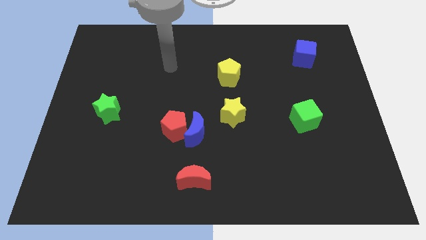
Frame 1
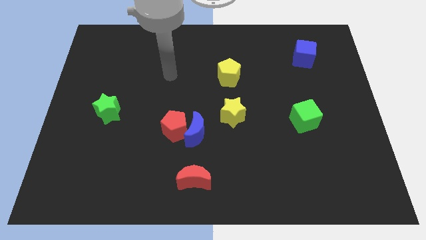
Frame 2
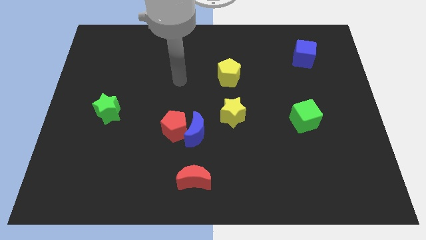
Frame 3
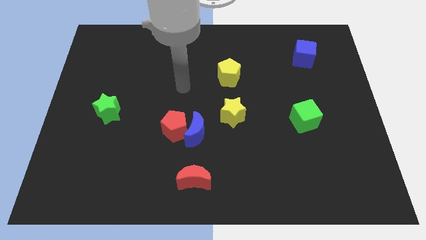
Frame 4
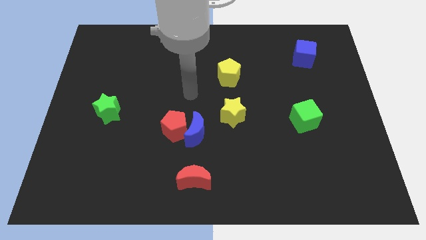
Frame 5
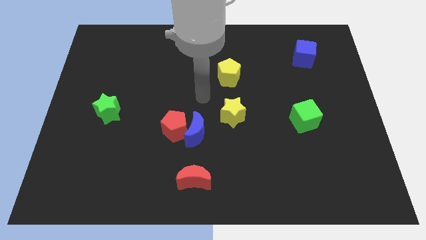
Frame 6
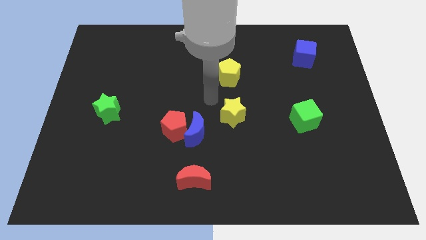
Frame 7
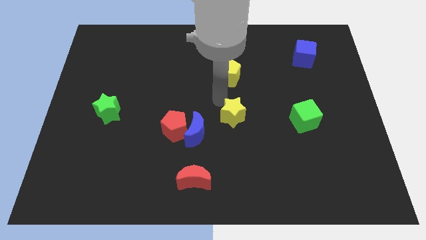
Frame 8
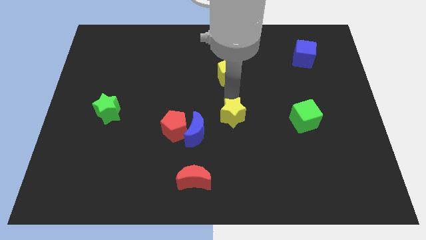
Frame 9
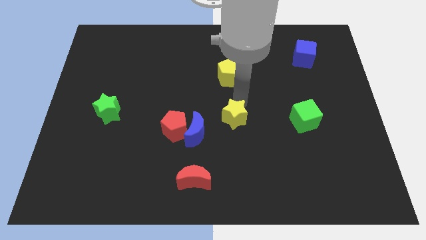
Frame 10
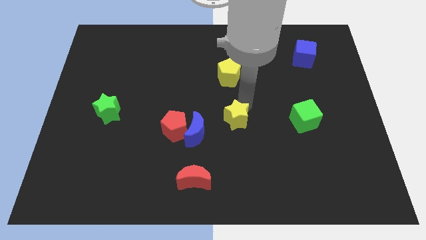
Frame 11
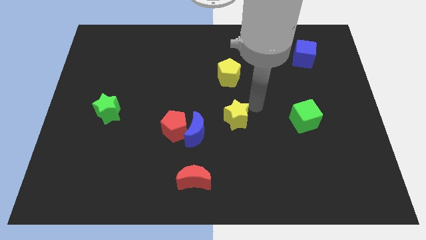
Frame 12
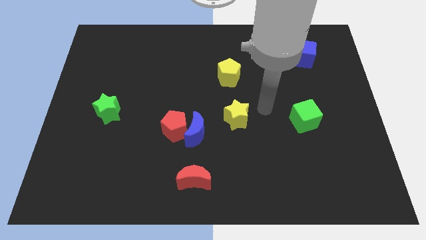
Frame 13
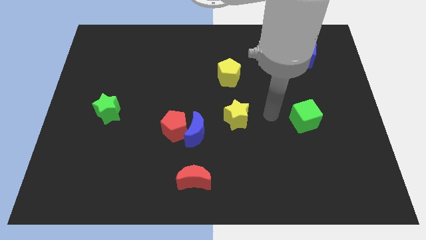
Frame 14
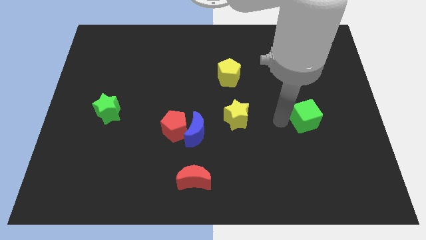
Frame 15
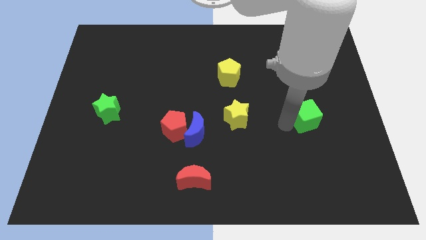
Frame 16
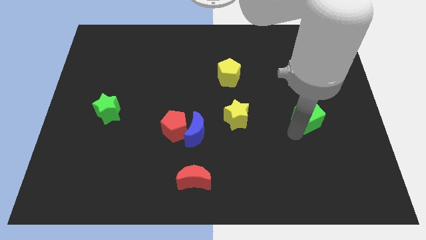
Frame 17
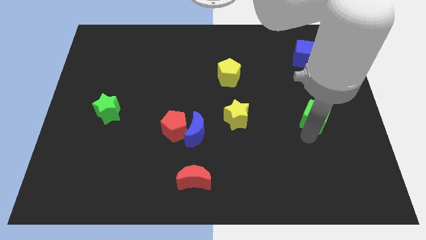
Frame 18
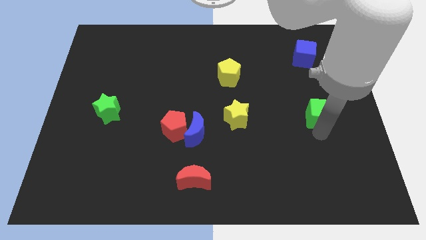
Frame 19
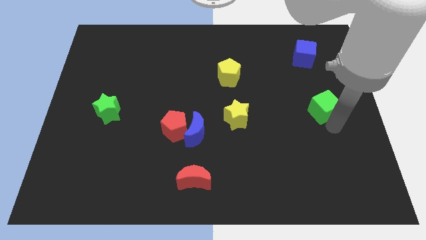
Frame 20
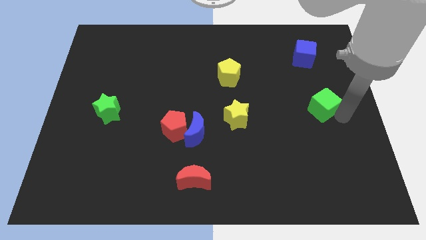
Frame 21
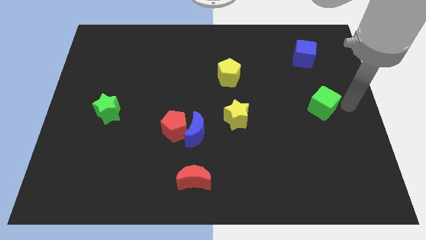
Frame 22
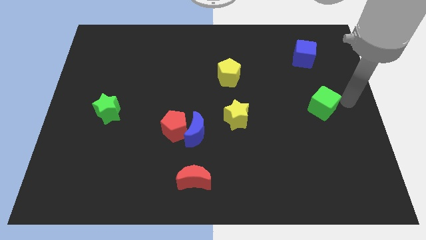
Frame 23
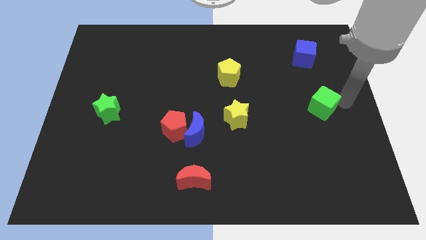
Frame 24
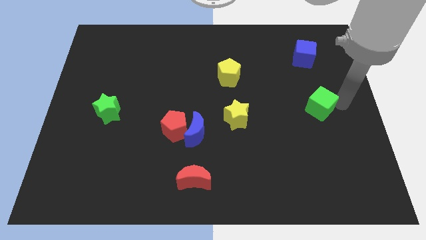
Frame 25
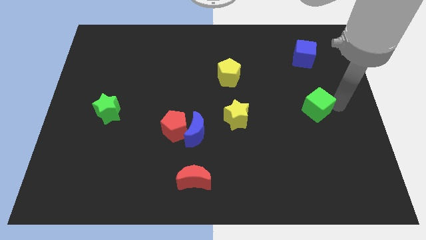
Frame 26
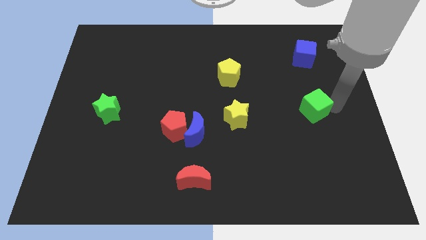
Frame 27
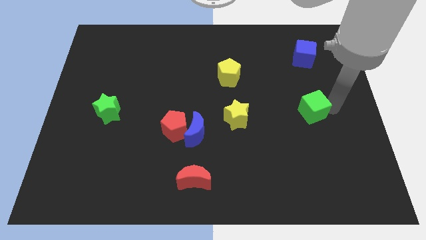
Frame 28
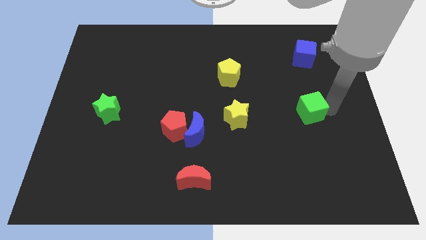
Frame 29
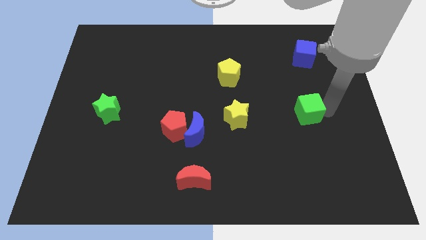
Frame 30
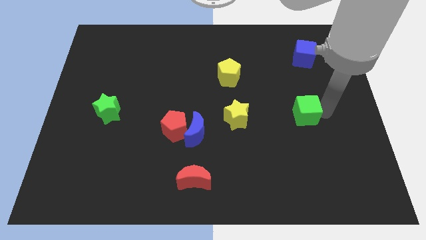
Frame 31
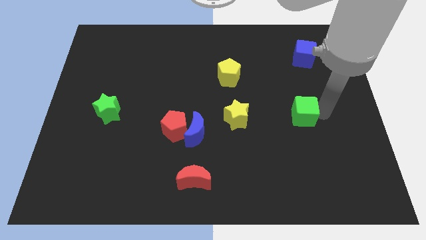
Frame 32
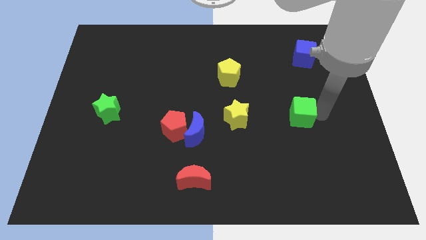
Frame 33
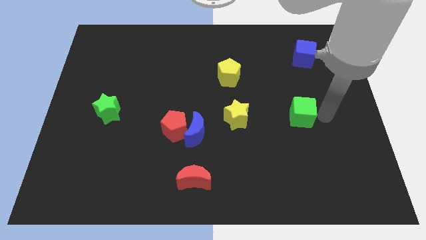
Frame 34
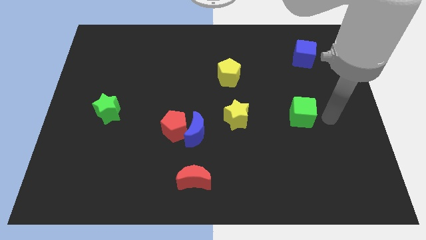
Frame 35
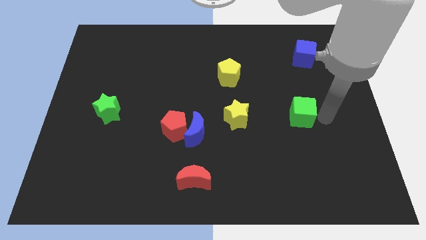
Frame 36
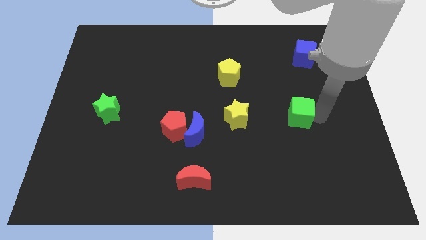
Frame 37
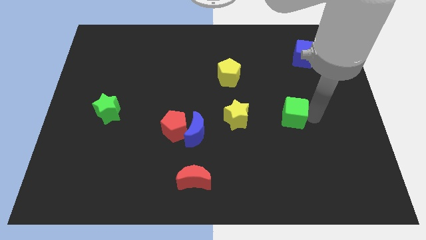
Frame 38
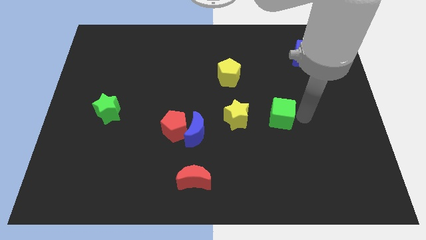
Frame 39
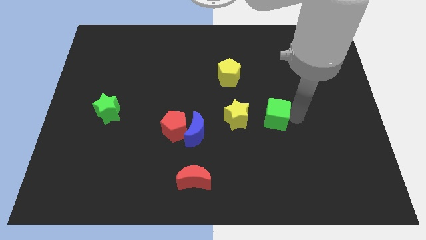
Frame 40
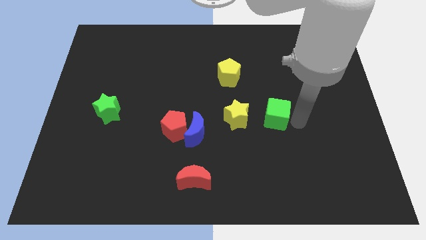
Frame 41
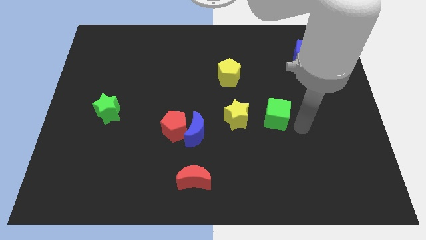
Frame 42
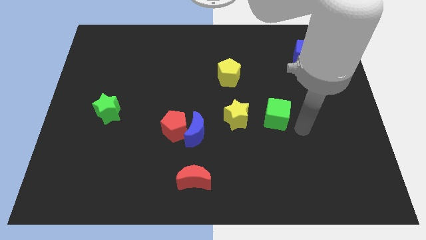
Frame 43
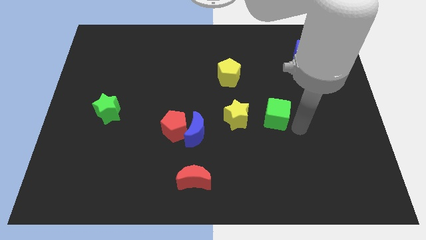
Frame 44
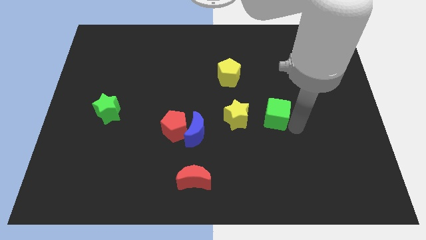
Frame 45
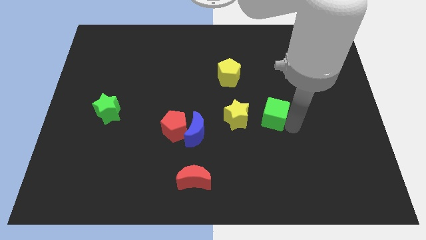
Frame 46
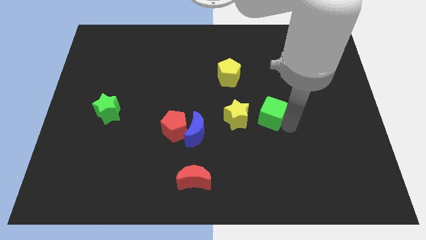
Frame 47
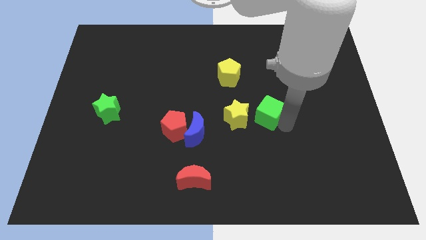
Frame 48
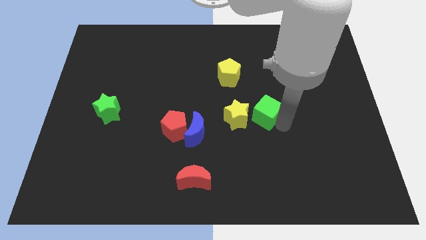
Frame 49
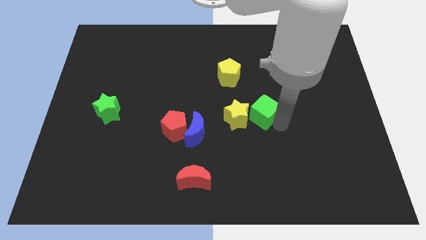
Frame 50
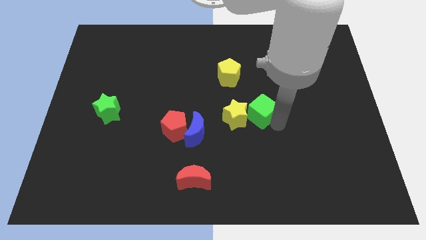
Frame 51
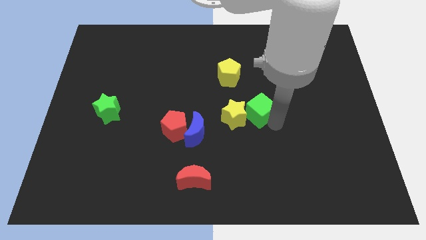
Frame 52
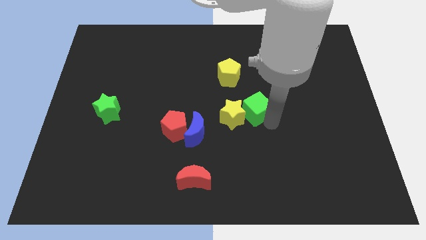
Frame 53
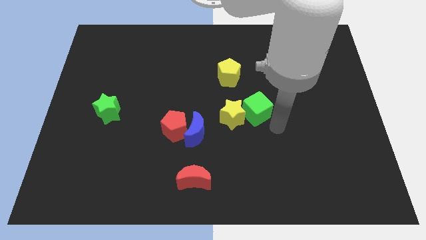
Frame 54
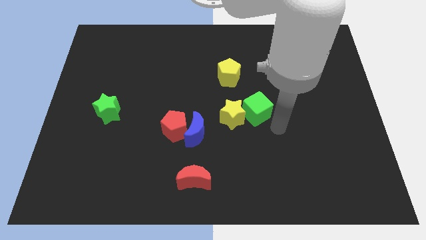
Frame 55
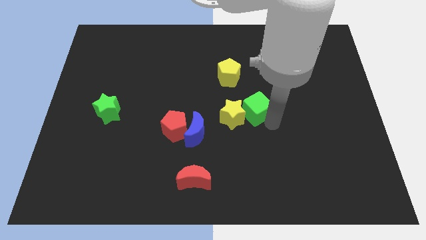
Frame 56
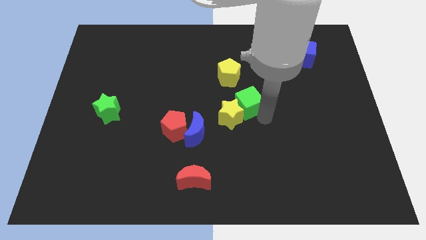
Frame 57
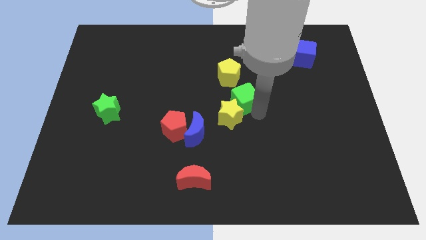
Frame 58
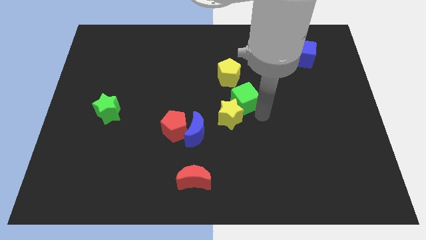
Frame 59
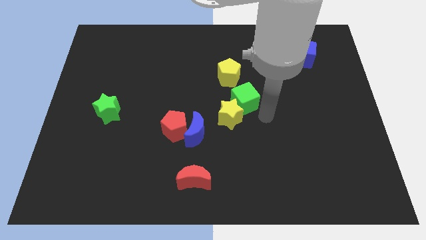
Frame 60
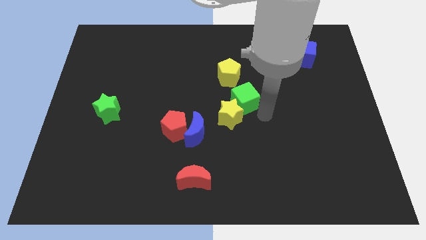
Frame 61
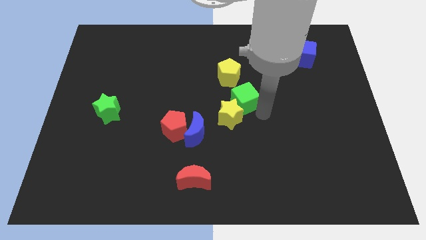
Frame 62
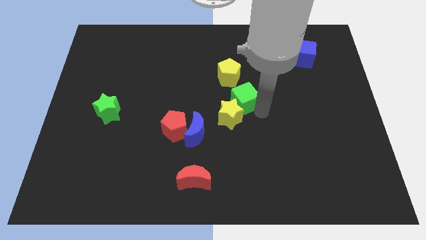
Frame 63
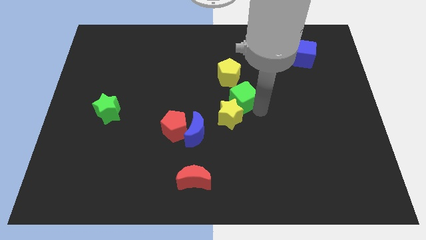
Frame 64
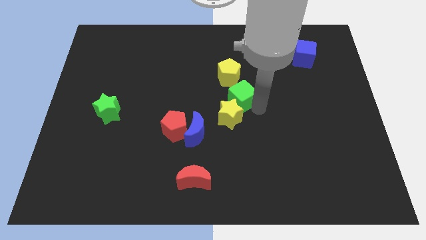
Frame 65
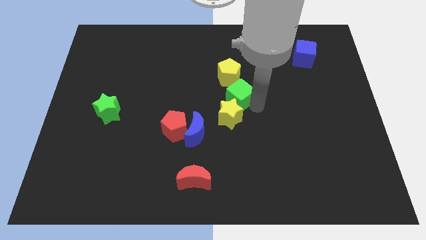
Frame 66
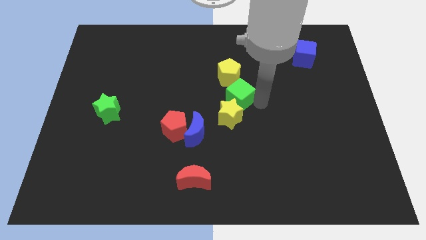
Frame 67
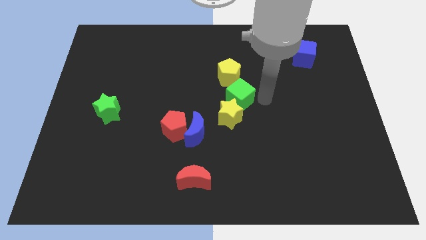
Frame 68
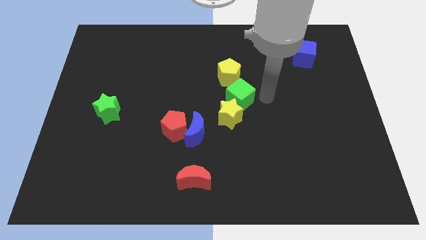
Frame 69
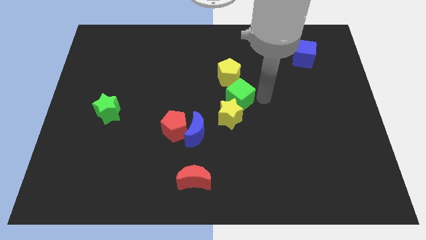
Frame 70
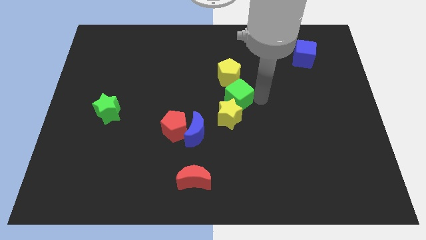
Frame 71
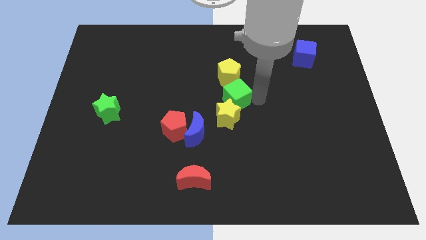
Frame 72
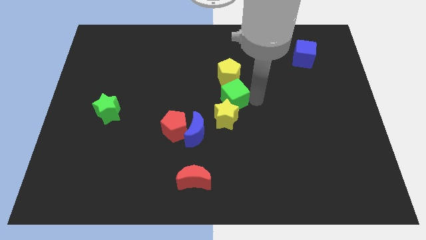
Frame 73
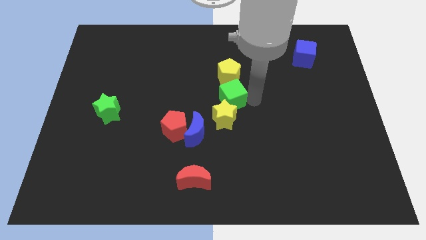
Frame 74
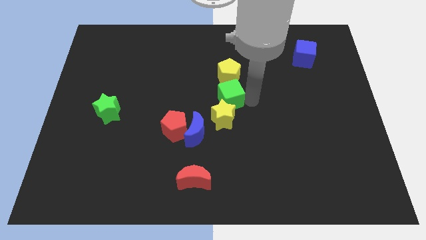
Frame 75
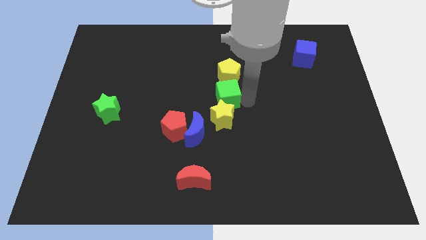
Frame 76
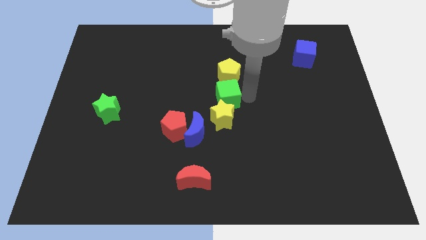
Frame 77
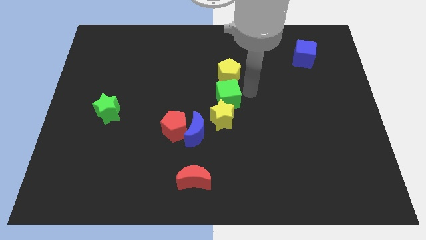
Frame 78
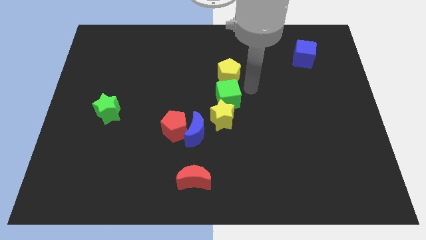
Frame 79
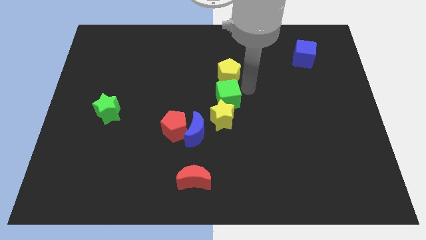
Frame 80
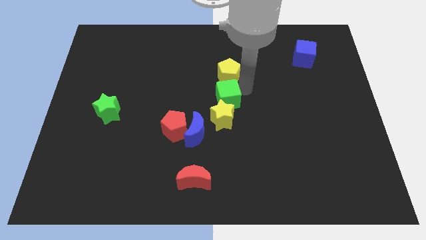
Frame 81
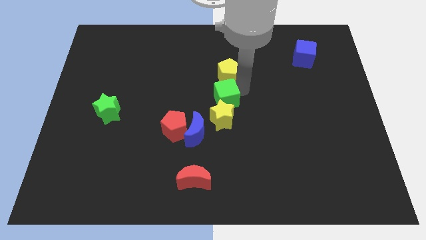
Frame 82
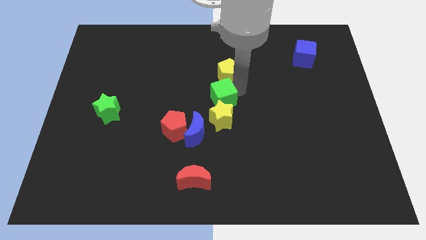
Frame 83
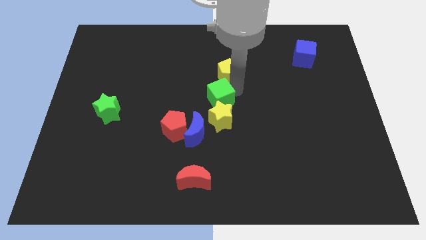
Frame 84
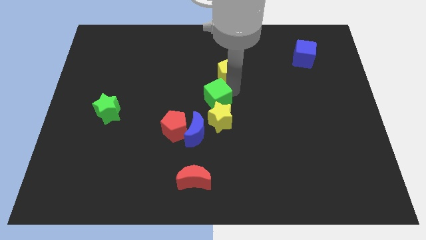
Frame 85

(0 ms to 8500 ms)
move the green cube to the top right of the red pentagon
